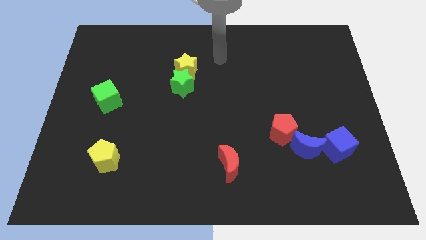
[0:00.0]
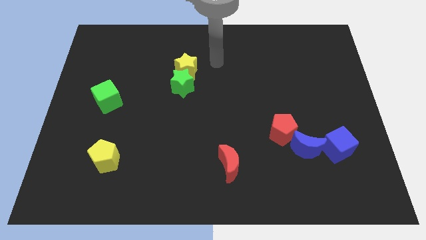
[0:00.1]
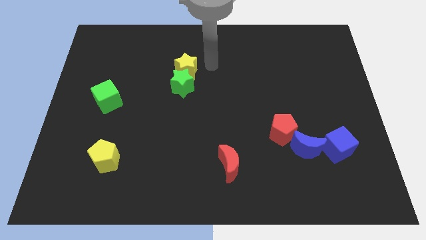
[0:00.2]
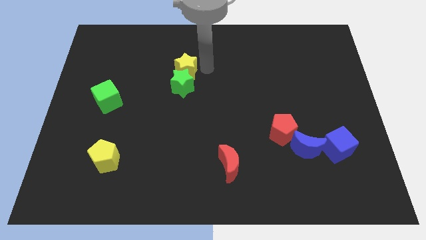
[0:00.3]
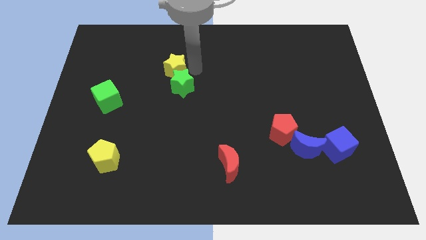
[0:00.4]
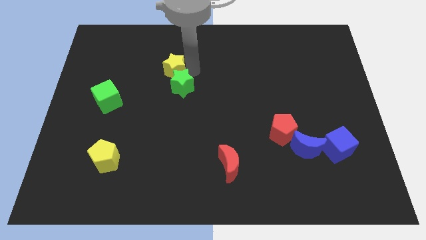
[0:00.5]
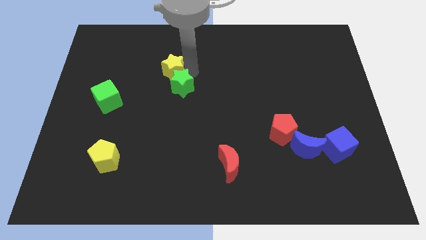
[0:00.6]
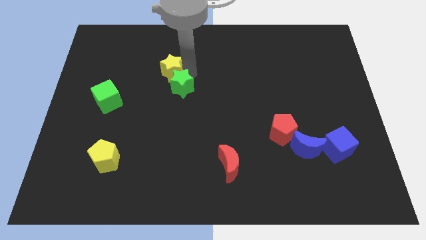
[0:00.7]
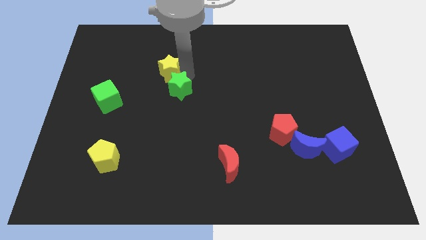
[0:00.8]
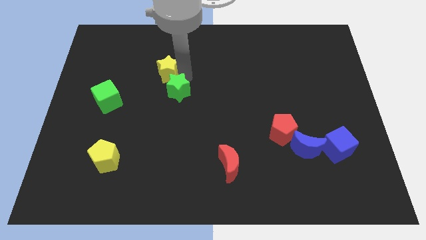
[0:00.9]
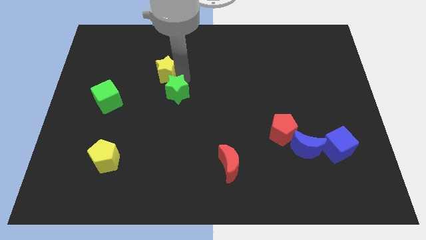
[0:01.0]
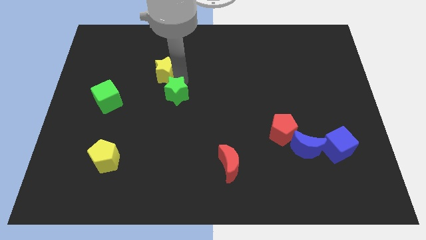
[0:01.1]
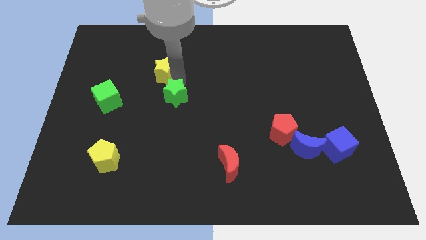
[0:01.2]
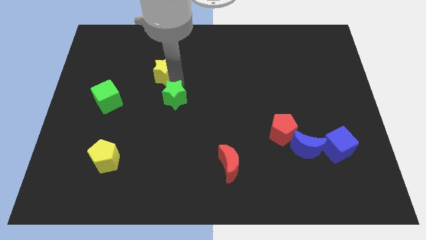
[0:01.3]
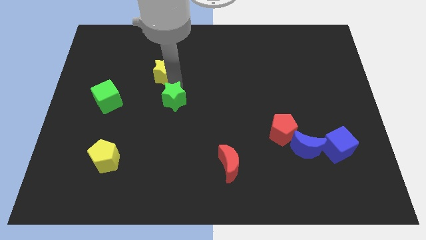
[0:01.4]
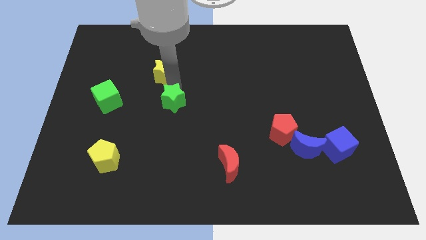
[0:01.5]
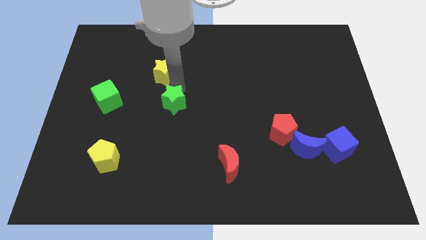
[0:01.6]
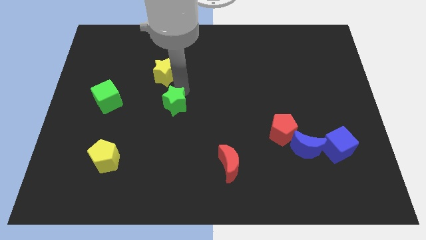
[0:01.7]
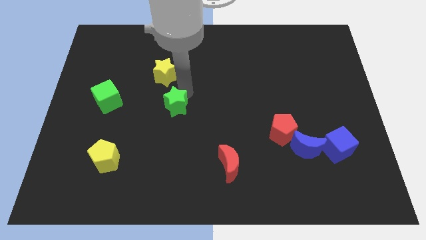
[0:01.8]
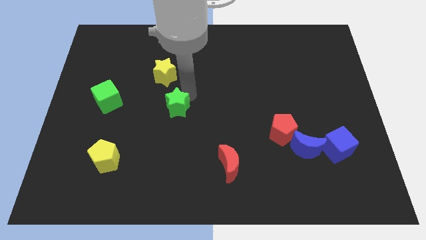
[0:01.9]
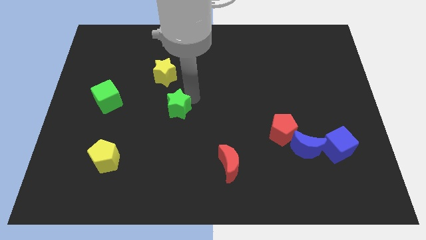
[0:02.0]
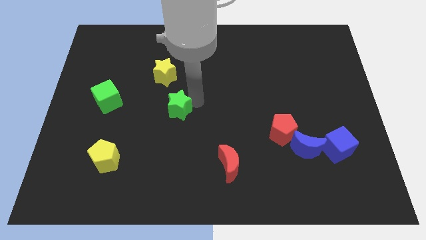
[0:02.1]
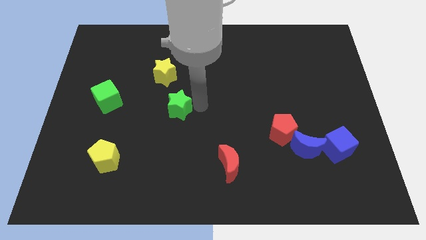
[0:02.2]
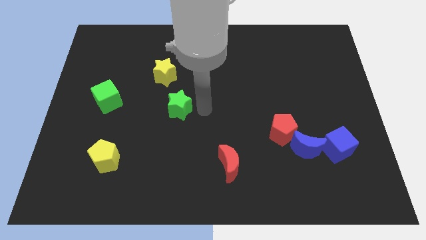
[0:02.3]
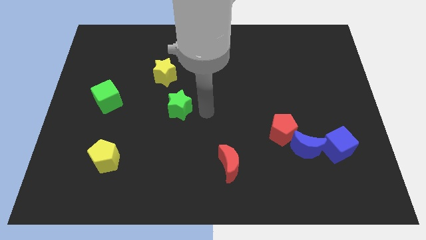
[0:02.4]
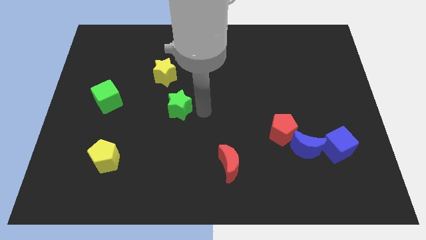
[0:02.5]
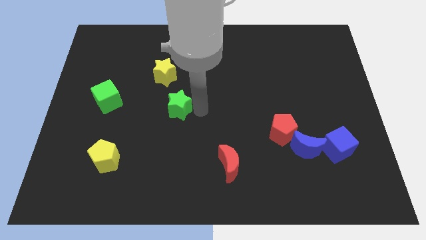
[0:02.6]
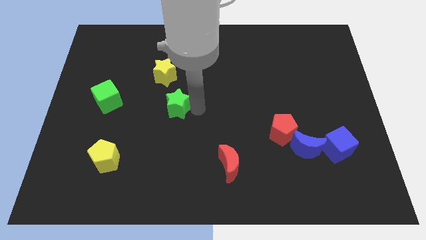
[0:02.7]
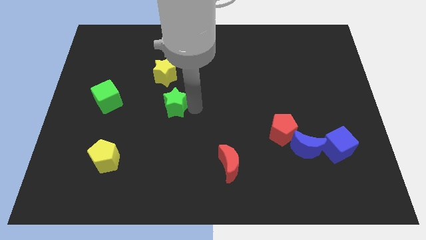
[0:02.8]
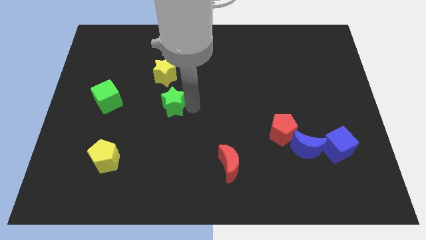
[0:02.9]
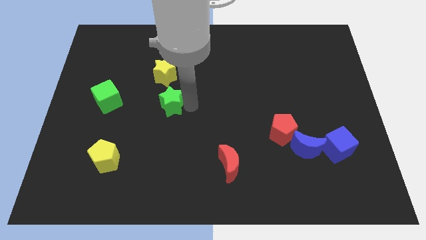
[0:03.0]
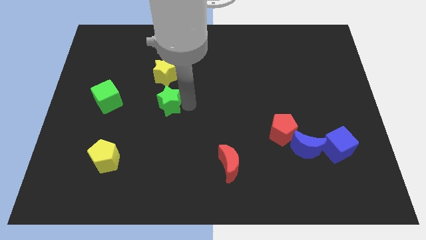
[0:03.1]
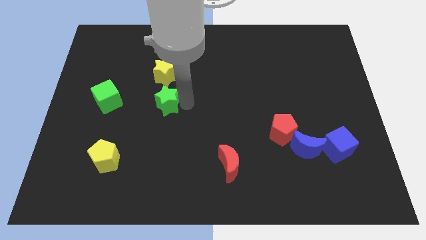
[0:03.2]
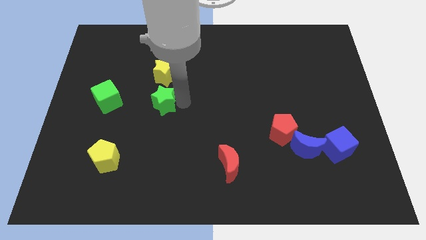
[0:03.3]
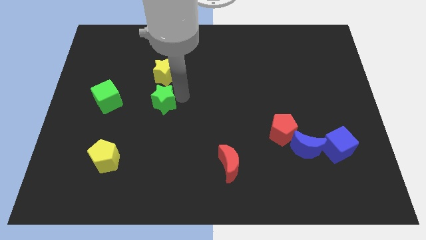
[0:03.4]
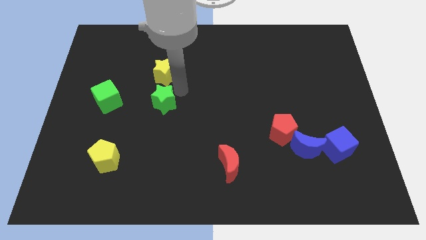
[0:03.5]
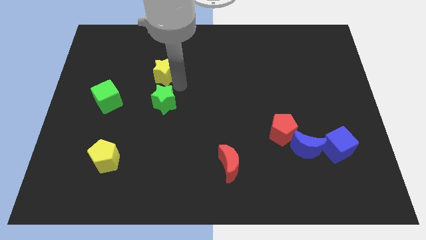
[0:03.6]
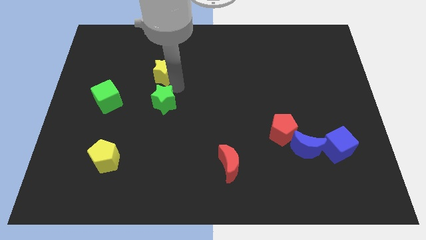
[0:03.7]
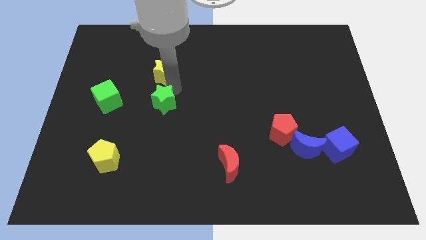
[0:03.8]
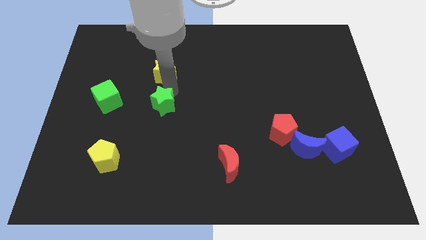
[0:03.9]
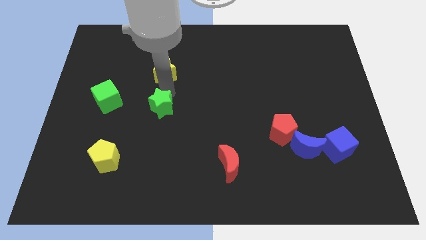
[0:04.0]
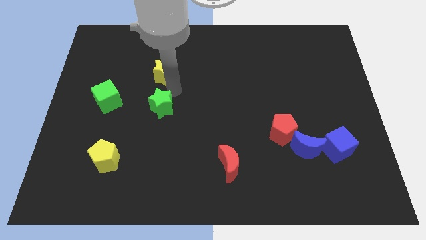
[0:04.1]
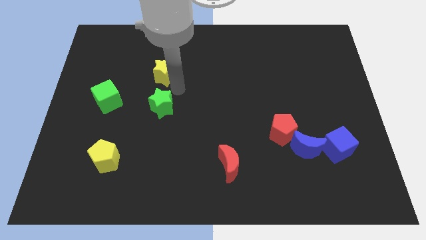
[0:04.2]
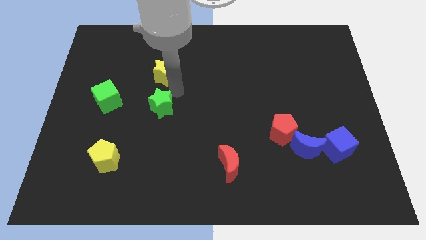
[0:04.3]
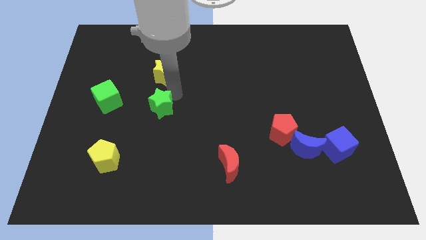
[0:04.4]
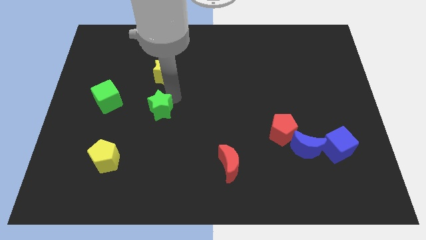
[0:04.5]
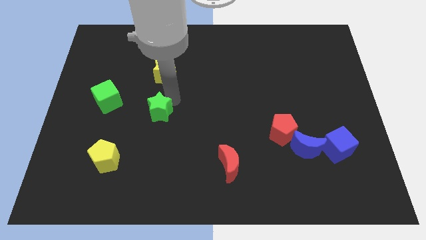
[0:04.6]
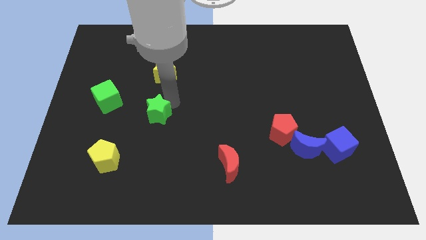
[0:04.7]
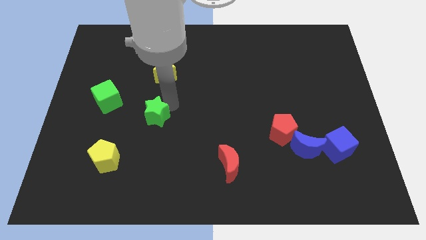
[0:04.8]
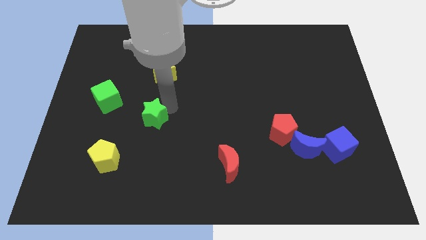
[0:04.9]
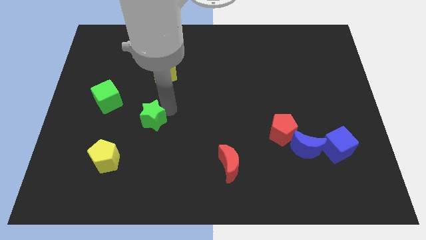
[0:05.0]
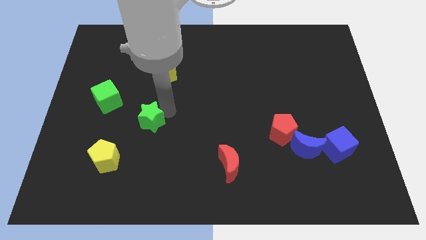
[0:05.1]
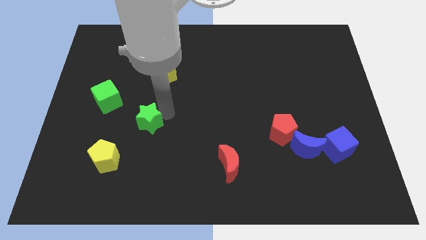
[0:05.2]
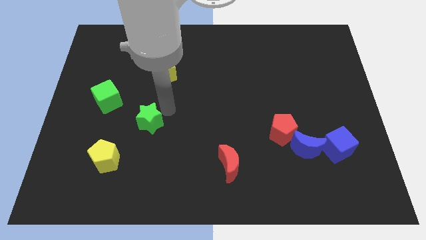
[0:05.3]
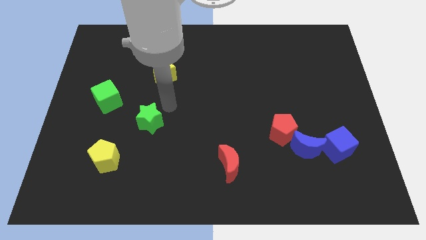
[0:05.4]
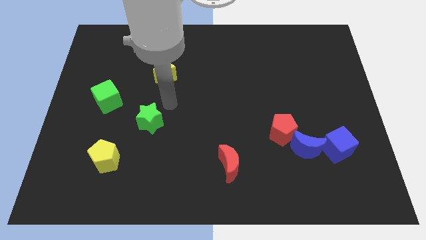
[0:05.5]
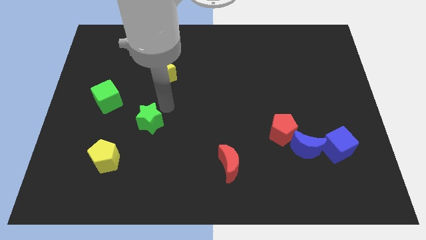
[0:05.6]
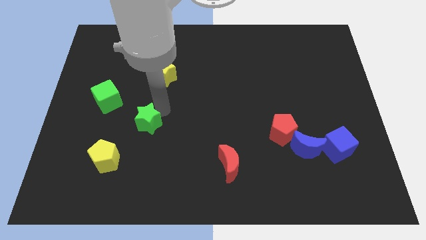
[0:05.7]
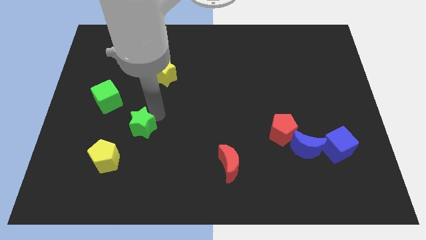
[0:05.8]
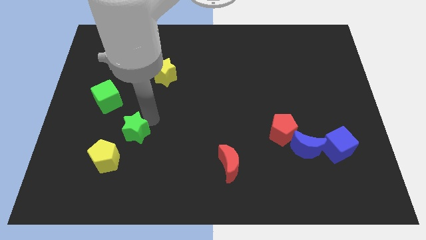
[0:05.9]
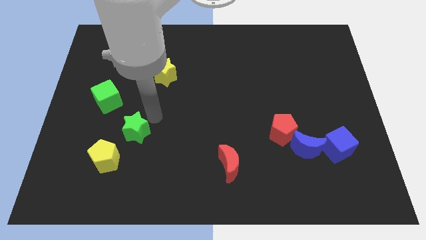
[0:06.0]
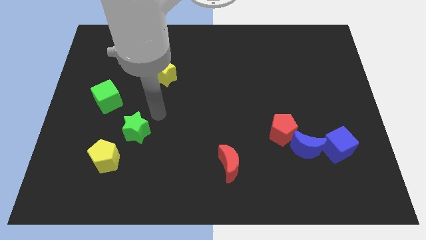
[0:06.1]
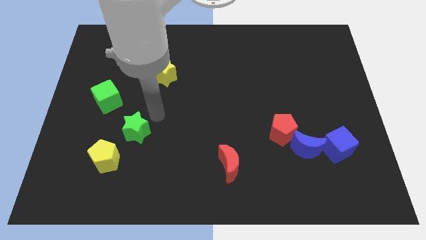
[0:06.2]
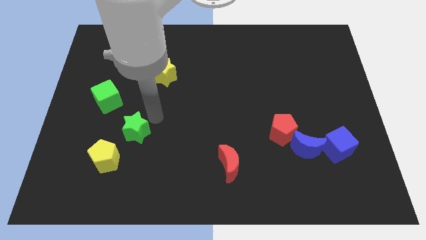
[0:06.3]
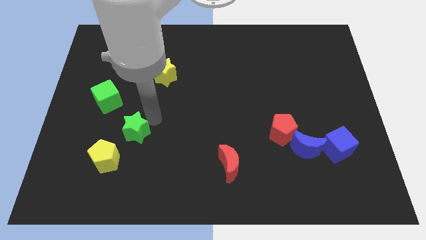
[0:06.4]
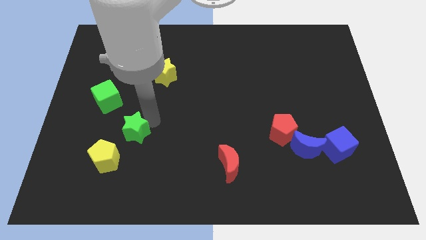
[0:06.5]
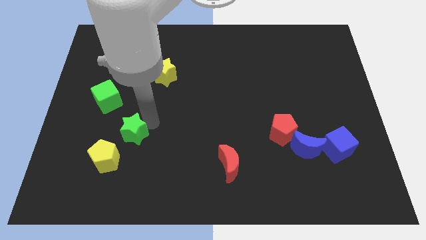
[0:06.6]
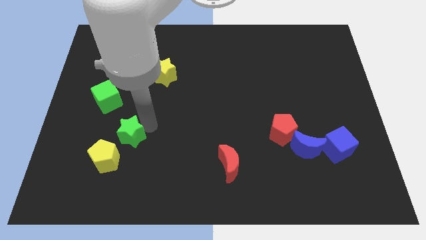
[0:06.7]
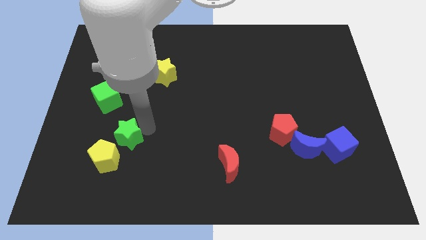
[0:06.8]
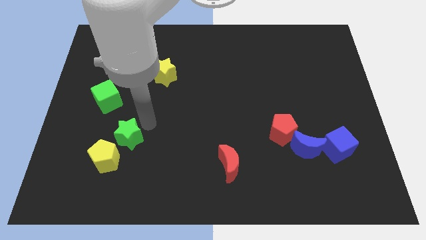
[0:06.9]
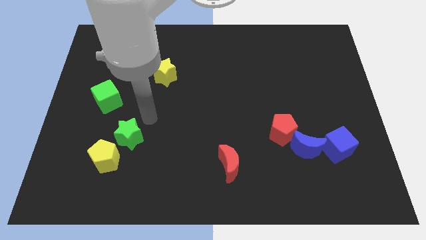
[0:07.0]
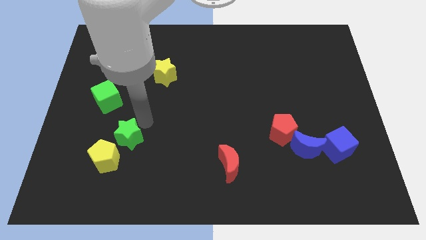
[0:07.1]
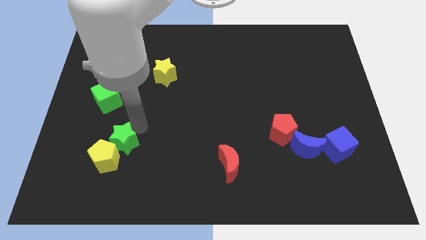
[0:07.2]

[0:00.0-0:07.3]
put the green star towards the yellow pentagon

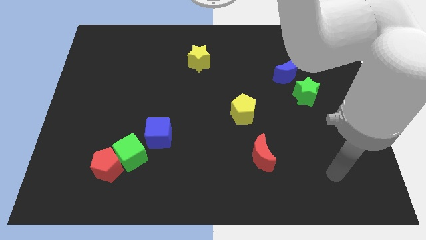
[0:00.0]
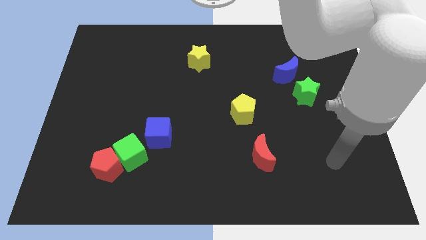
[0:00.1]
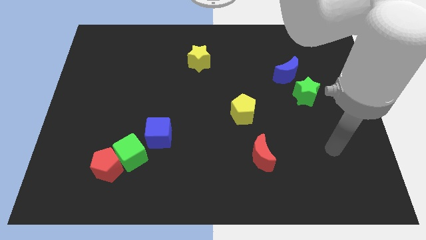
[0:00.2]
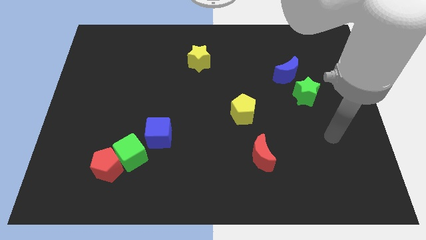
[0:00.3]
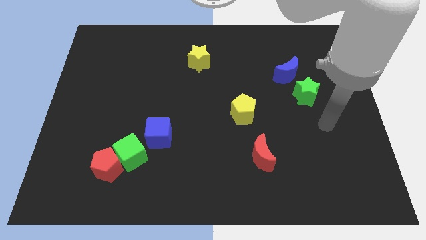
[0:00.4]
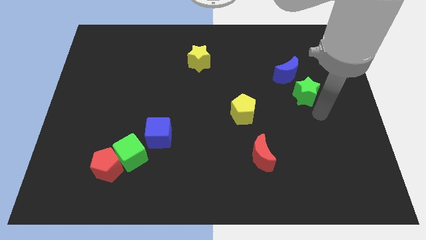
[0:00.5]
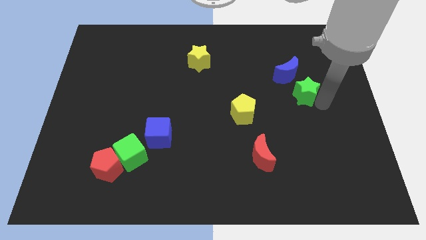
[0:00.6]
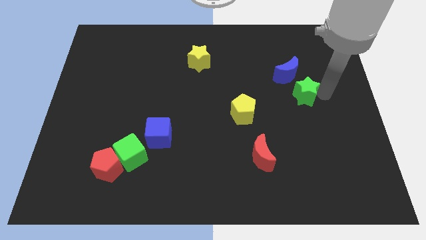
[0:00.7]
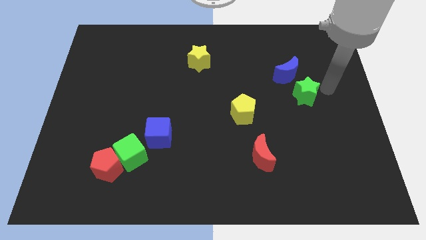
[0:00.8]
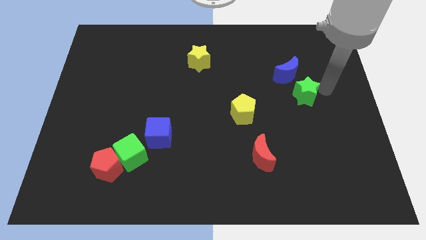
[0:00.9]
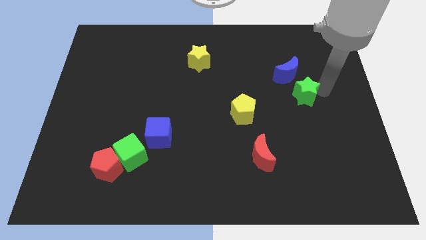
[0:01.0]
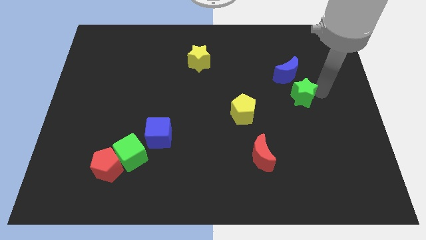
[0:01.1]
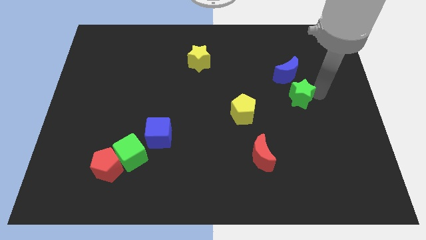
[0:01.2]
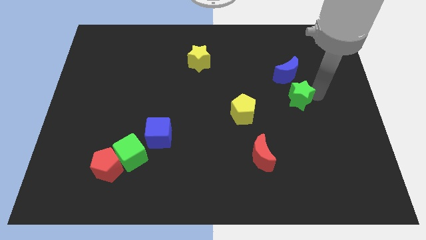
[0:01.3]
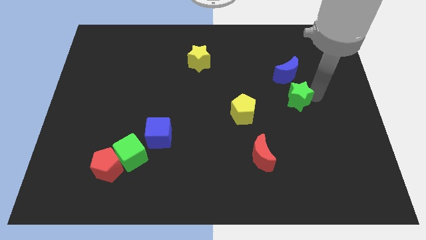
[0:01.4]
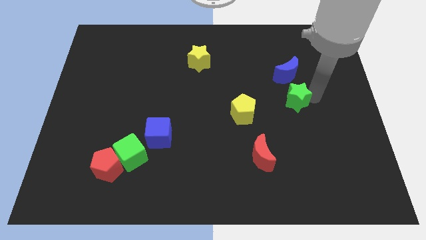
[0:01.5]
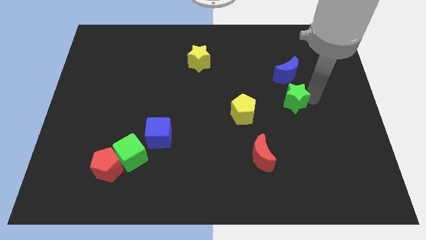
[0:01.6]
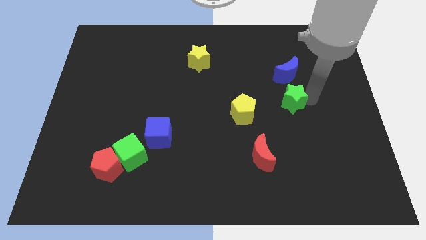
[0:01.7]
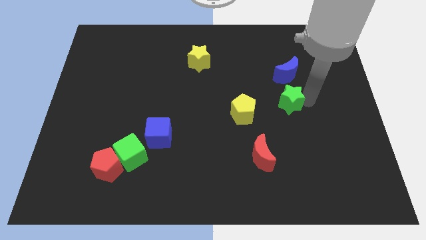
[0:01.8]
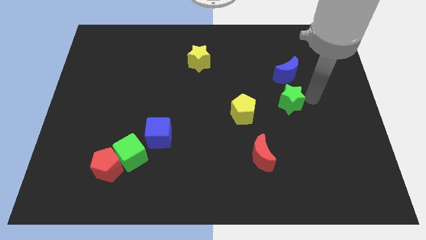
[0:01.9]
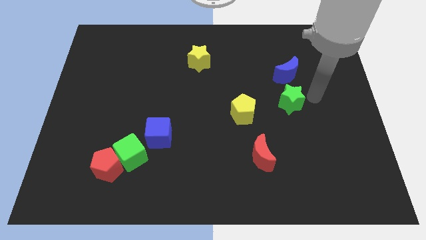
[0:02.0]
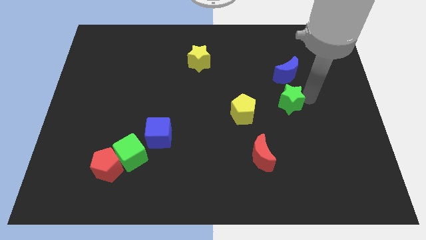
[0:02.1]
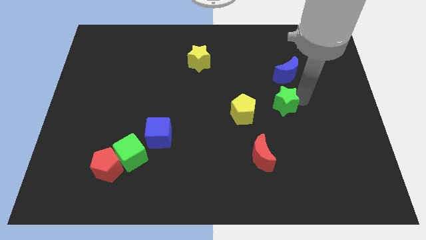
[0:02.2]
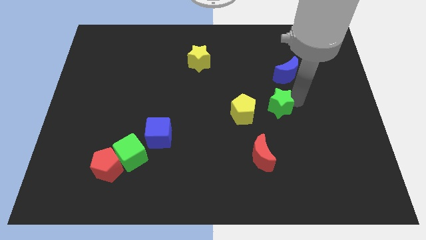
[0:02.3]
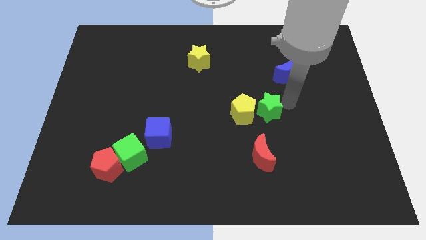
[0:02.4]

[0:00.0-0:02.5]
move the green star close to the yellow pentagon
